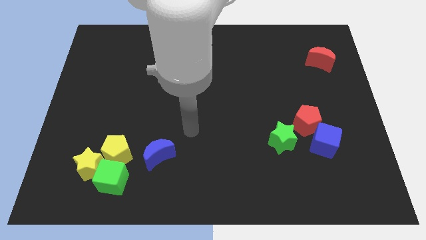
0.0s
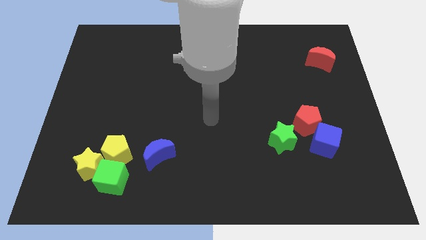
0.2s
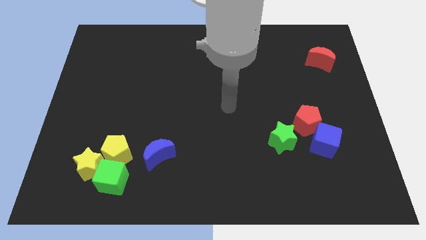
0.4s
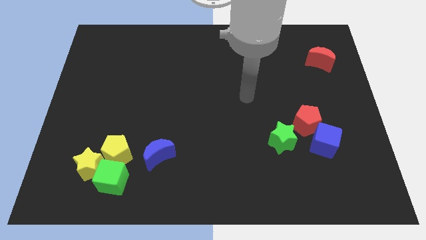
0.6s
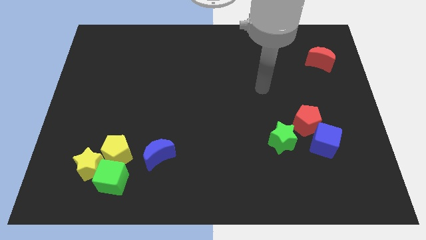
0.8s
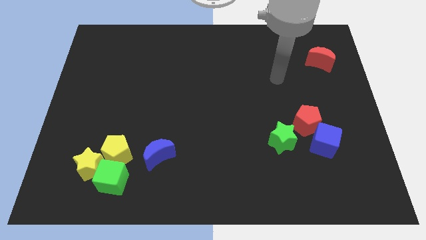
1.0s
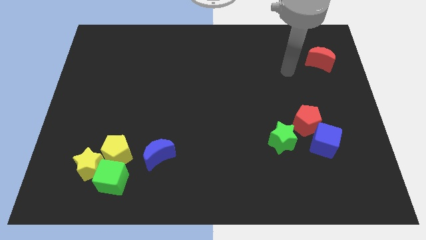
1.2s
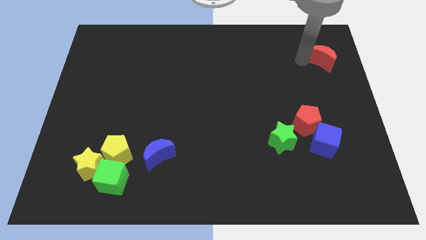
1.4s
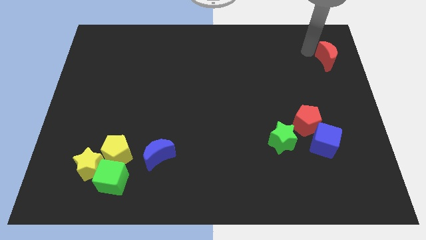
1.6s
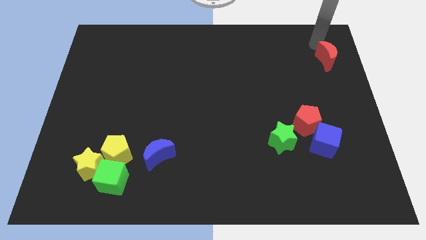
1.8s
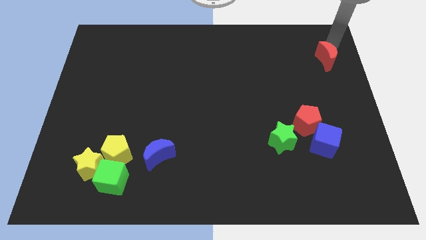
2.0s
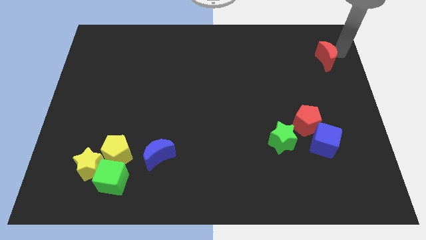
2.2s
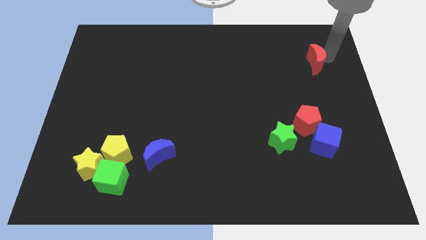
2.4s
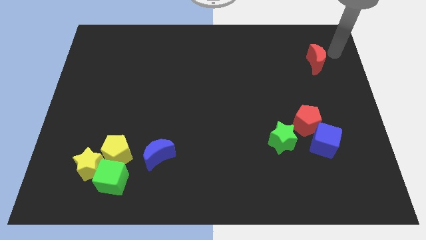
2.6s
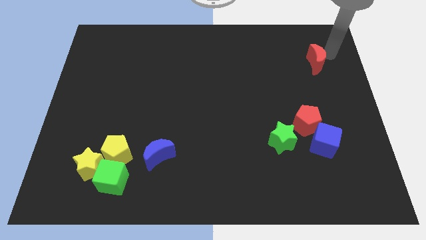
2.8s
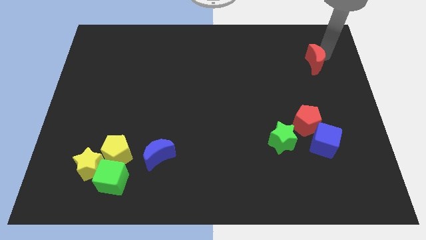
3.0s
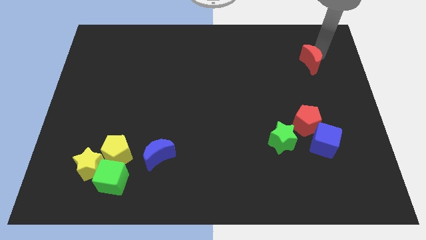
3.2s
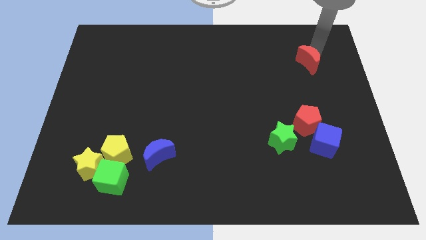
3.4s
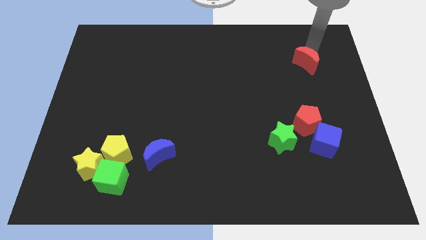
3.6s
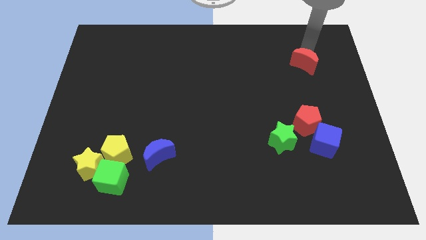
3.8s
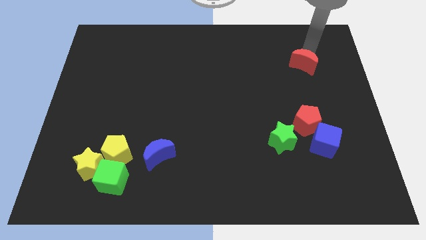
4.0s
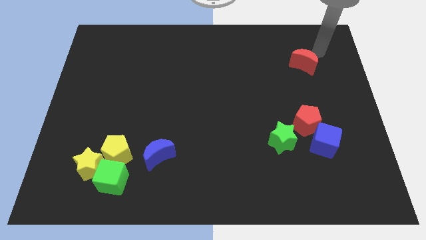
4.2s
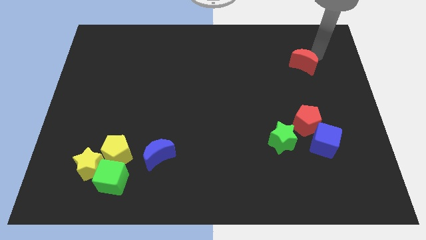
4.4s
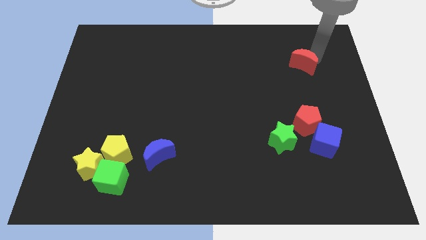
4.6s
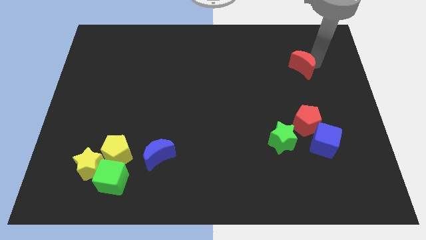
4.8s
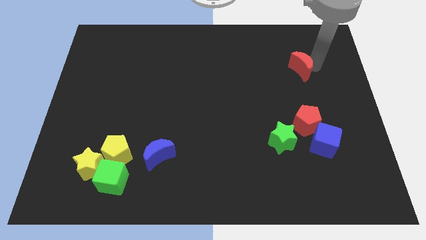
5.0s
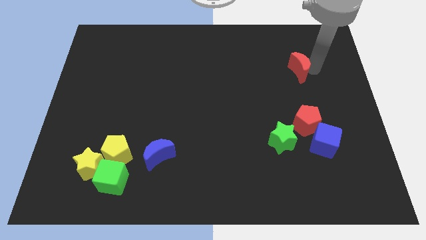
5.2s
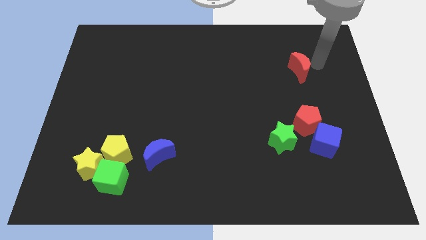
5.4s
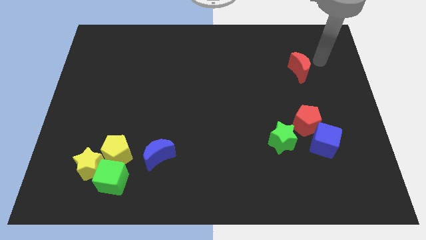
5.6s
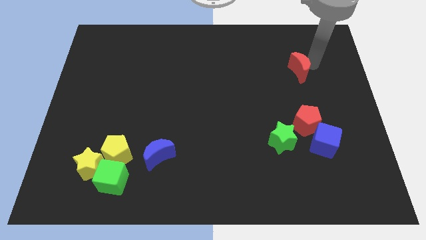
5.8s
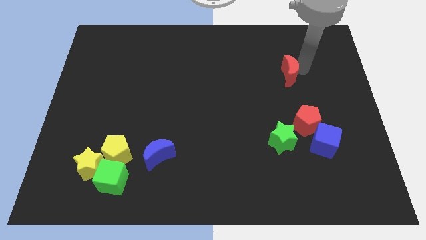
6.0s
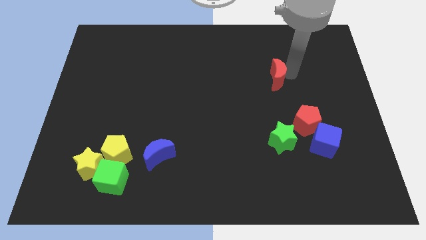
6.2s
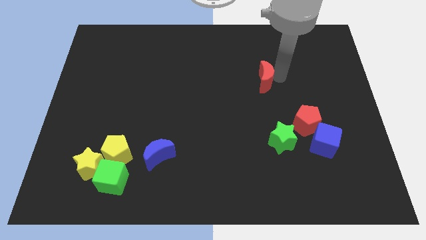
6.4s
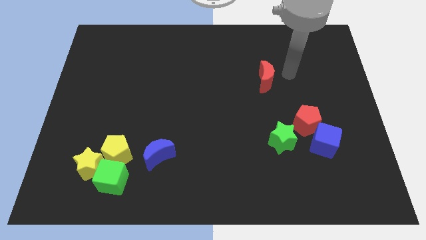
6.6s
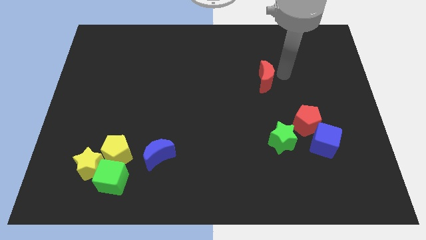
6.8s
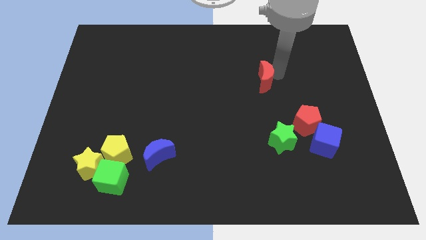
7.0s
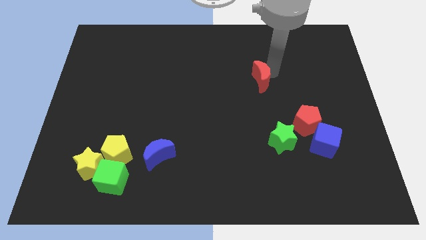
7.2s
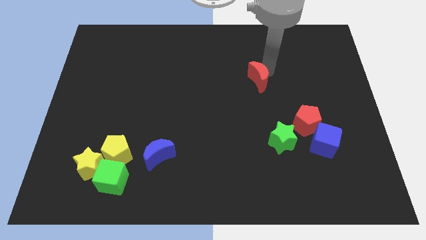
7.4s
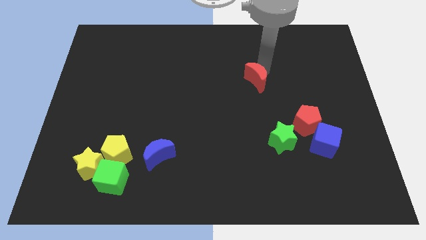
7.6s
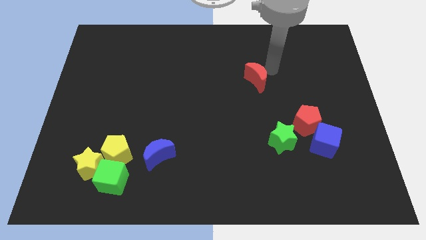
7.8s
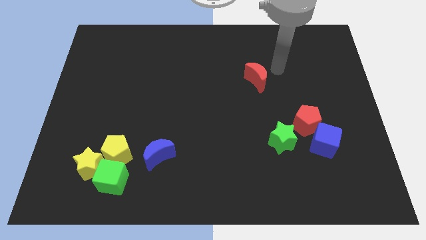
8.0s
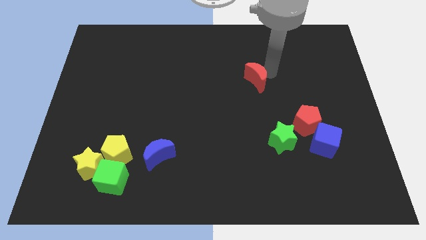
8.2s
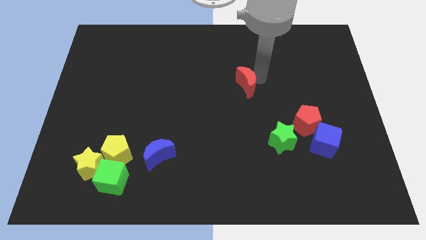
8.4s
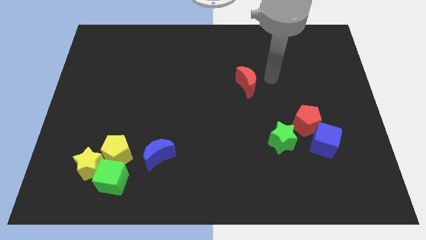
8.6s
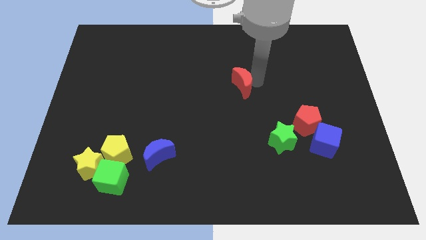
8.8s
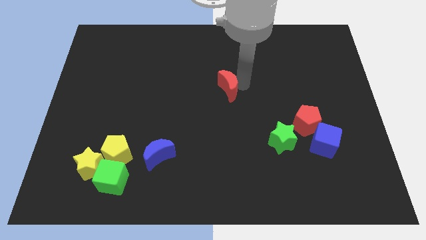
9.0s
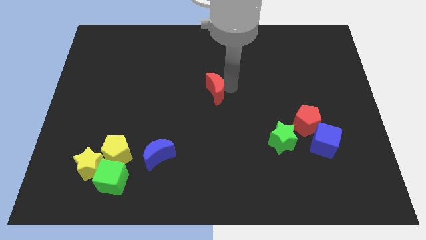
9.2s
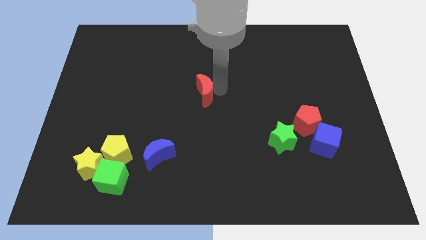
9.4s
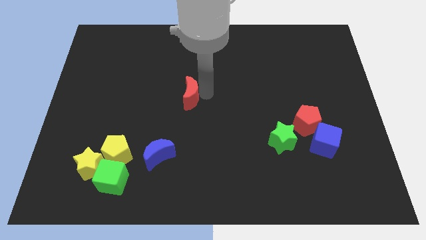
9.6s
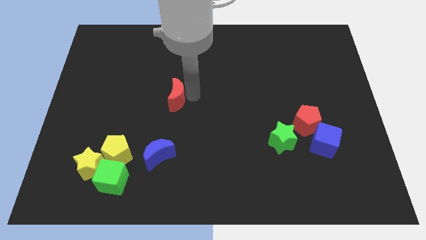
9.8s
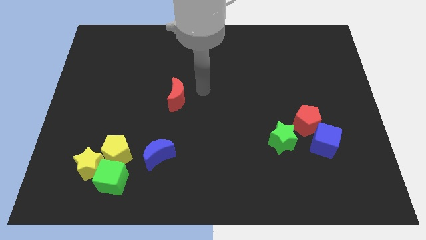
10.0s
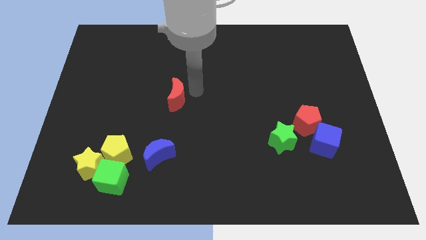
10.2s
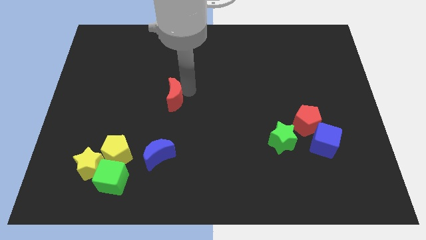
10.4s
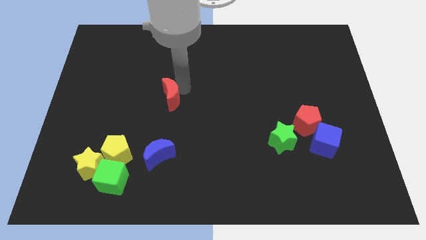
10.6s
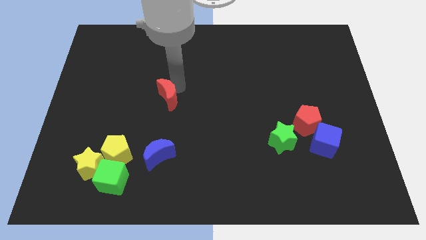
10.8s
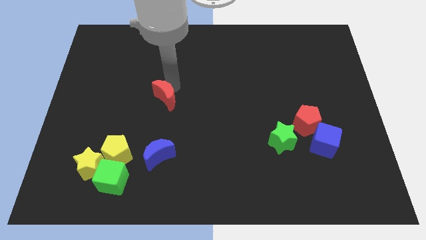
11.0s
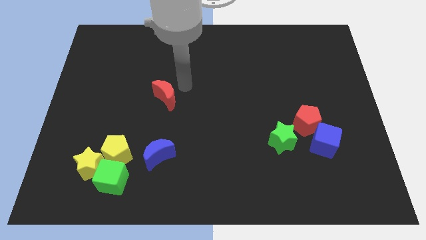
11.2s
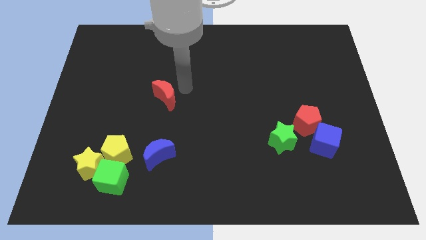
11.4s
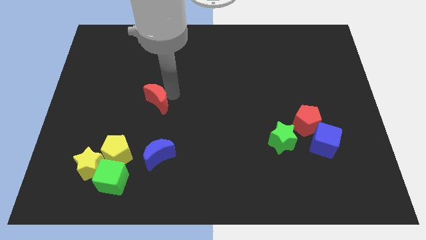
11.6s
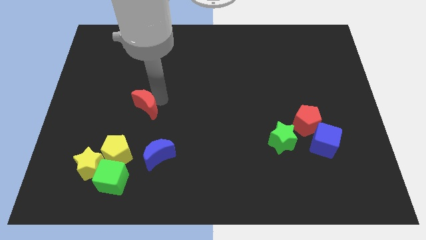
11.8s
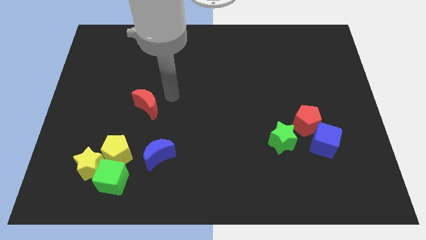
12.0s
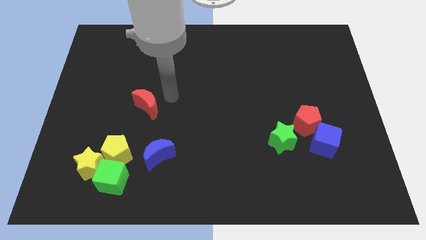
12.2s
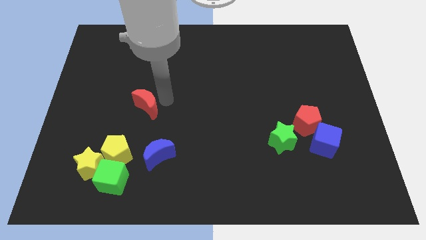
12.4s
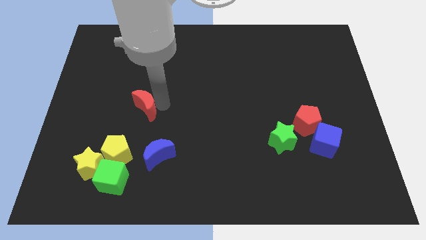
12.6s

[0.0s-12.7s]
move the red moon above the yellow pentagon
